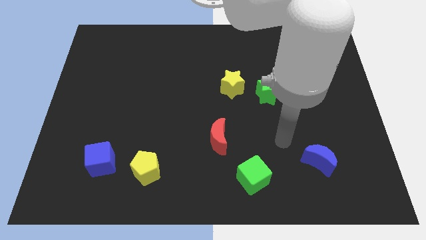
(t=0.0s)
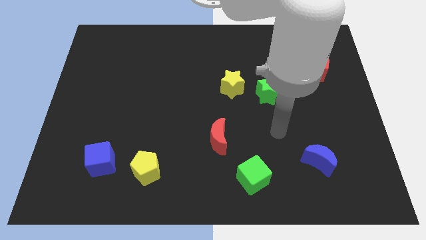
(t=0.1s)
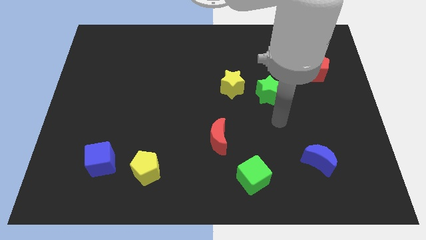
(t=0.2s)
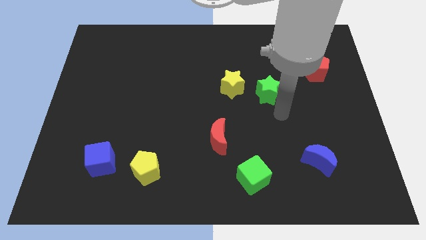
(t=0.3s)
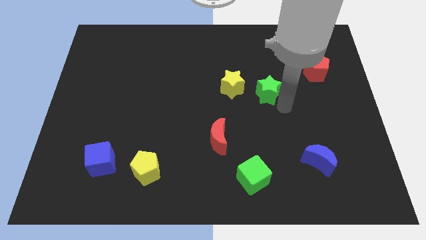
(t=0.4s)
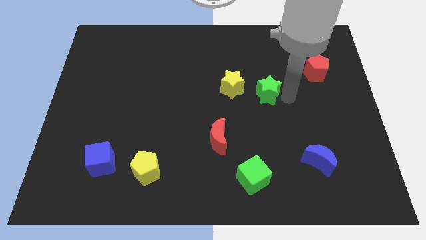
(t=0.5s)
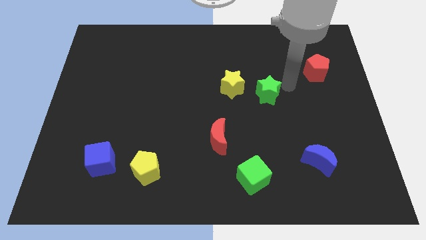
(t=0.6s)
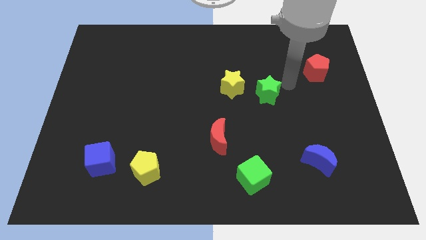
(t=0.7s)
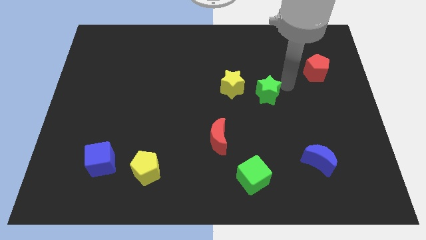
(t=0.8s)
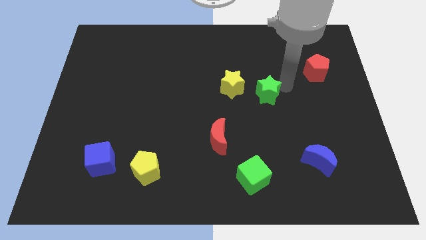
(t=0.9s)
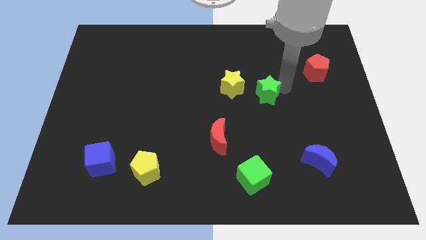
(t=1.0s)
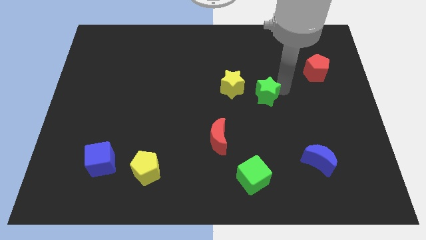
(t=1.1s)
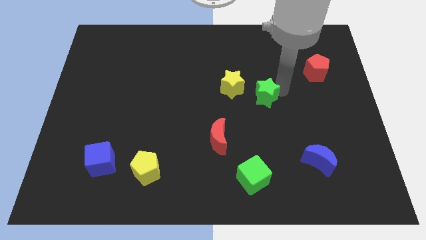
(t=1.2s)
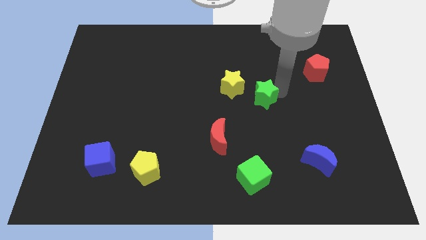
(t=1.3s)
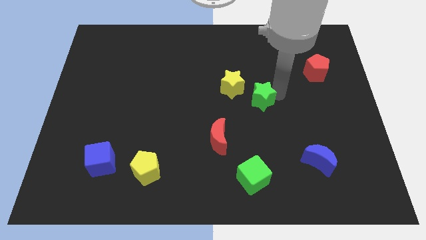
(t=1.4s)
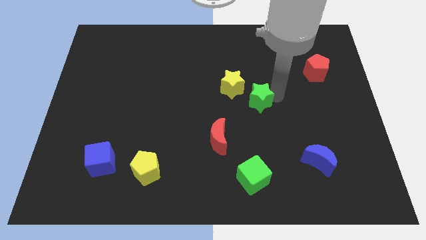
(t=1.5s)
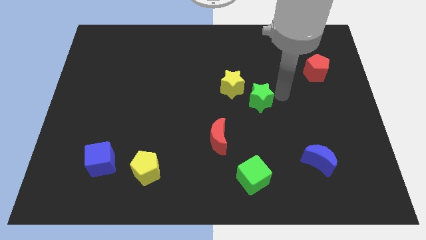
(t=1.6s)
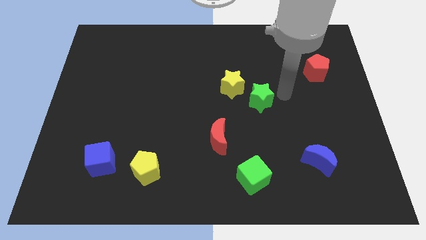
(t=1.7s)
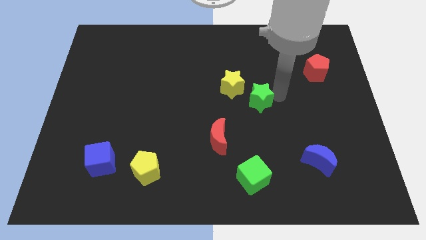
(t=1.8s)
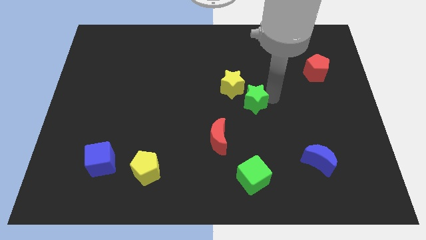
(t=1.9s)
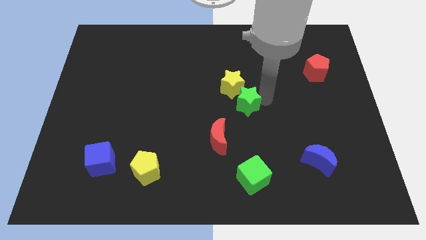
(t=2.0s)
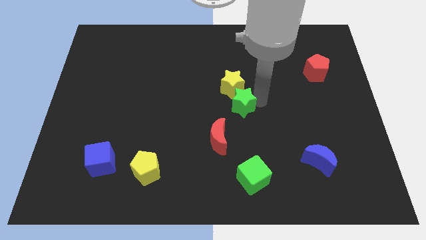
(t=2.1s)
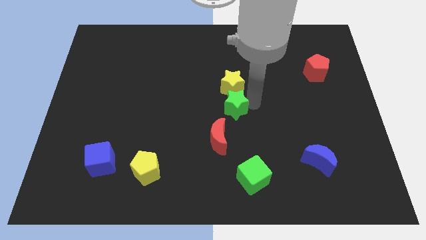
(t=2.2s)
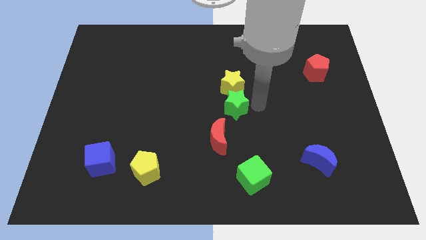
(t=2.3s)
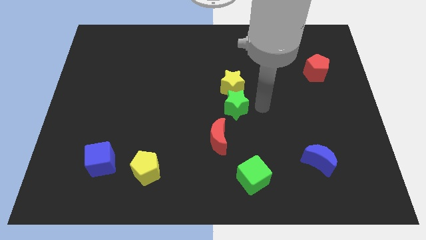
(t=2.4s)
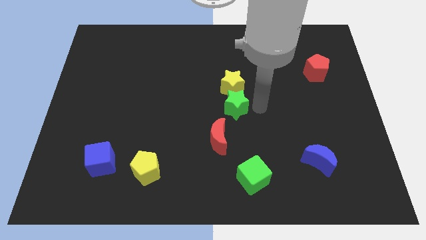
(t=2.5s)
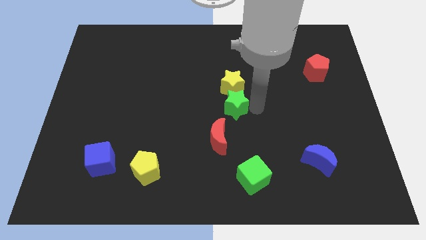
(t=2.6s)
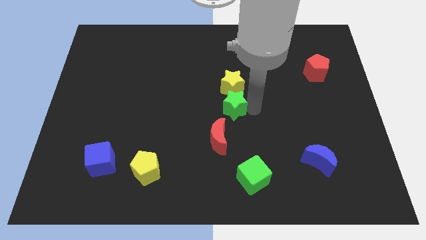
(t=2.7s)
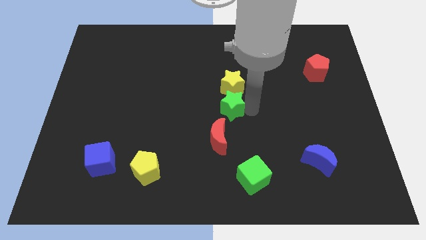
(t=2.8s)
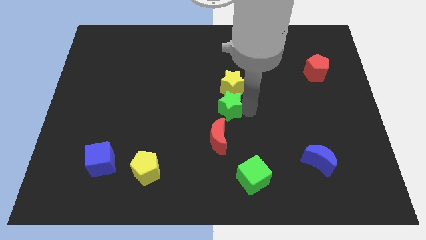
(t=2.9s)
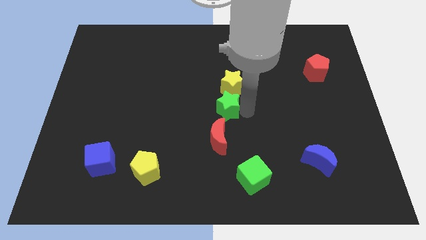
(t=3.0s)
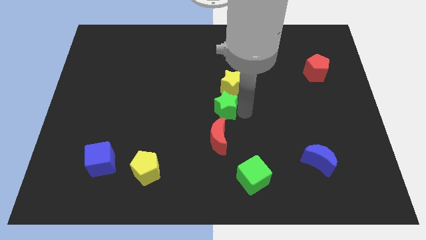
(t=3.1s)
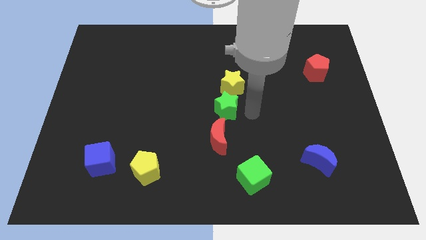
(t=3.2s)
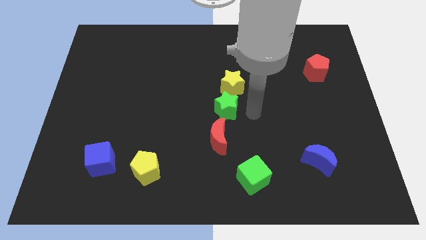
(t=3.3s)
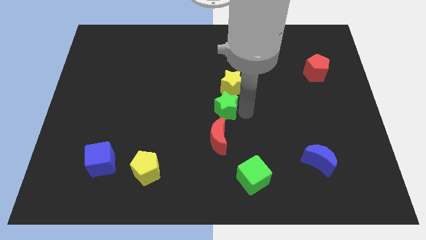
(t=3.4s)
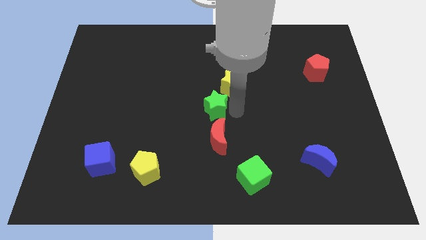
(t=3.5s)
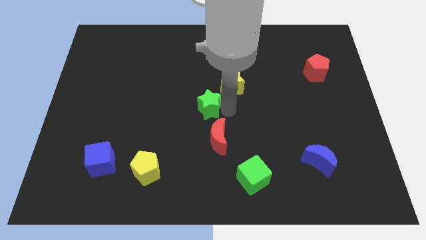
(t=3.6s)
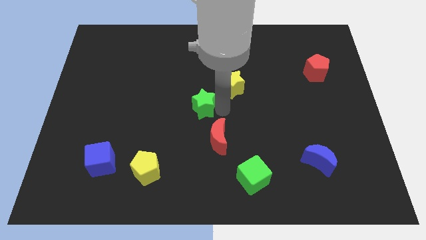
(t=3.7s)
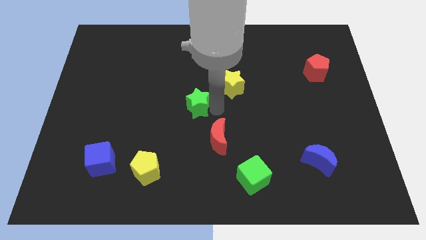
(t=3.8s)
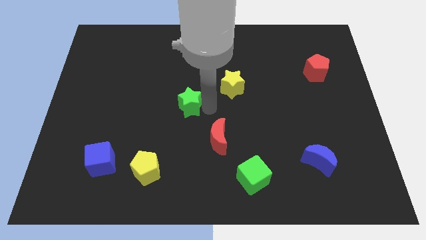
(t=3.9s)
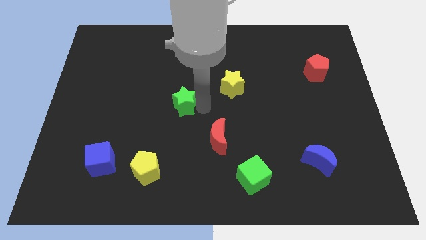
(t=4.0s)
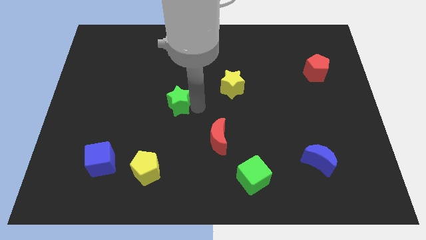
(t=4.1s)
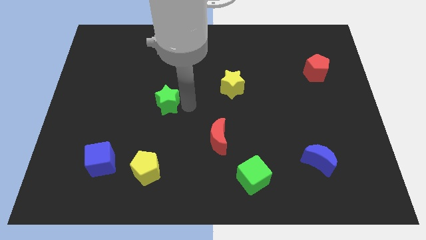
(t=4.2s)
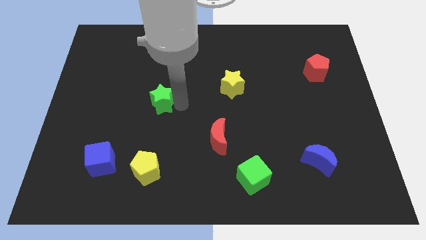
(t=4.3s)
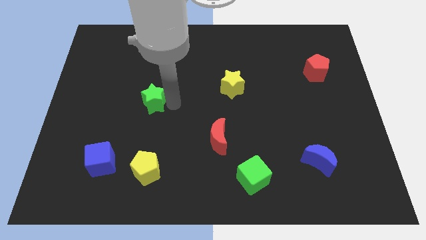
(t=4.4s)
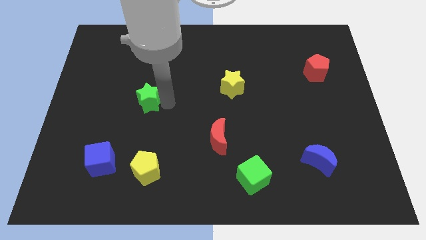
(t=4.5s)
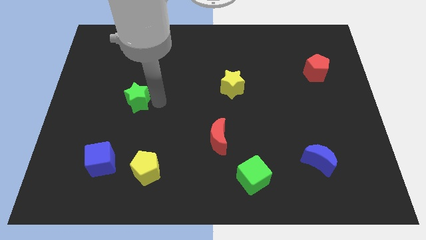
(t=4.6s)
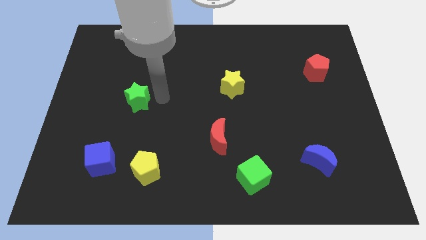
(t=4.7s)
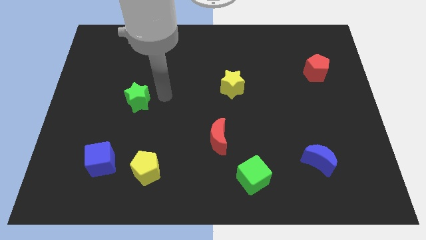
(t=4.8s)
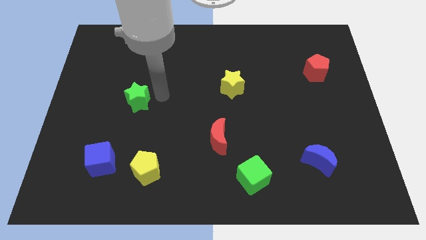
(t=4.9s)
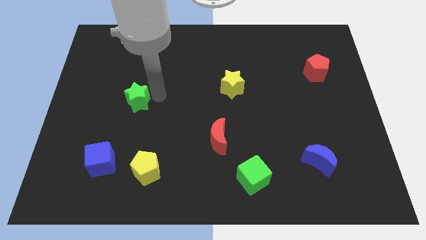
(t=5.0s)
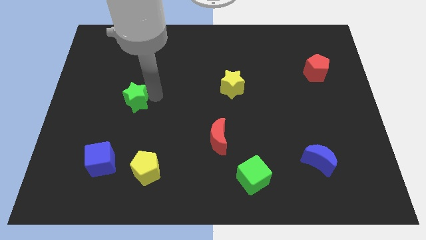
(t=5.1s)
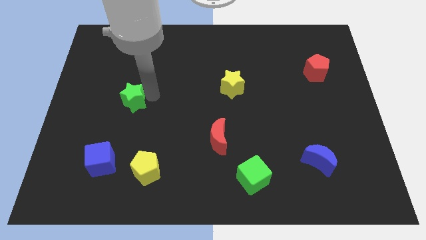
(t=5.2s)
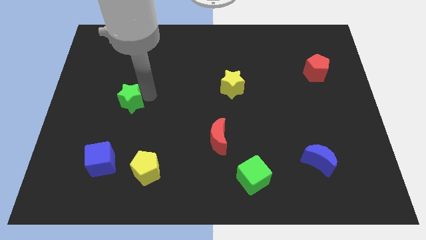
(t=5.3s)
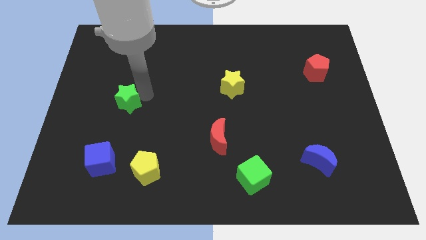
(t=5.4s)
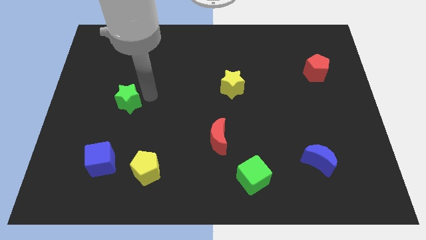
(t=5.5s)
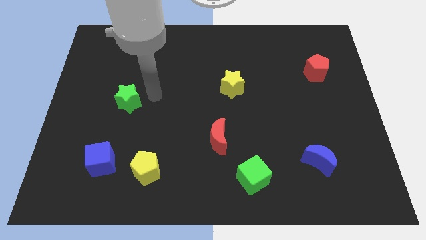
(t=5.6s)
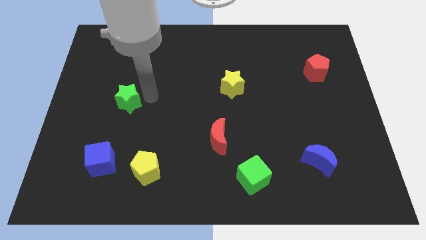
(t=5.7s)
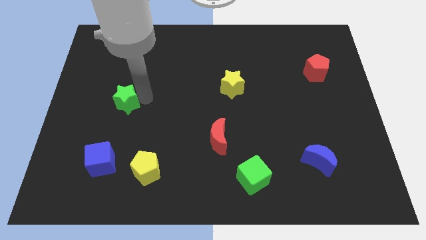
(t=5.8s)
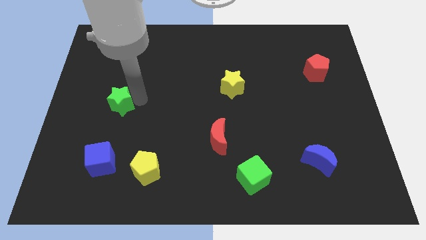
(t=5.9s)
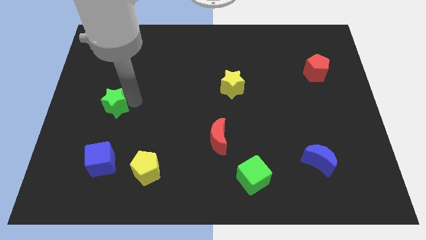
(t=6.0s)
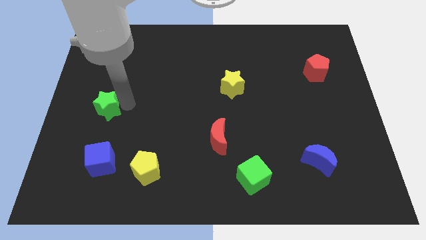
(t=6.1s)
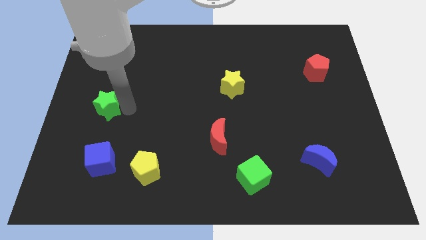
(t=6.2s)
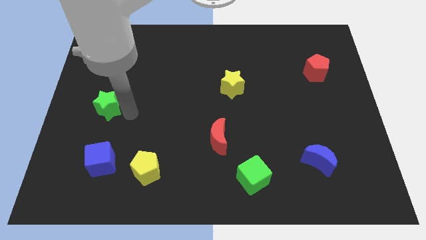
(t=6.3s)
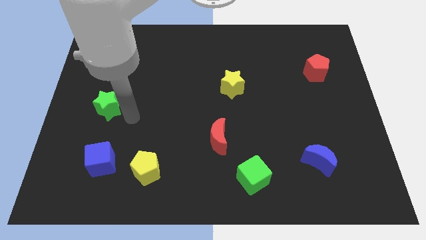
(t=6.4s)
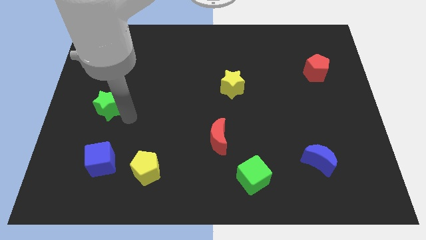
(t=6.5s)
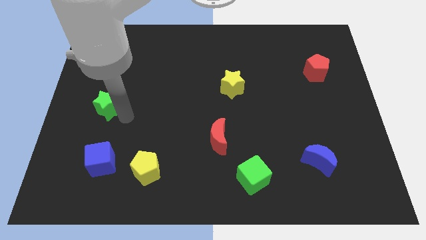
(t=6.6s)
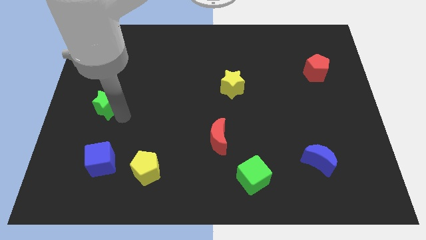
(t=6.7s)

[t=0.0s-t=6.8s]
push the green star to the center left

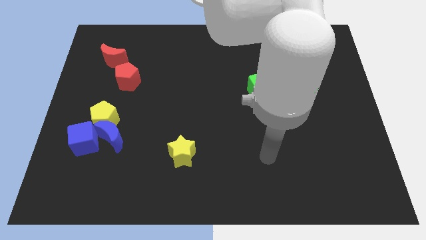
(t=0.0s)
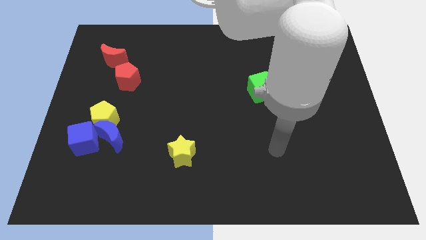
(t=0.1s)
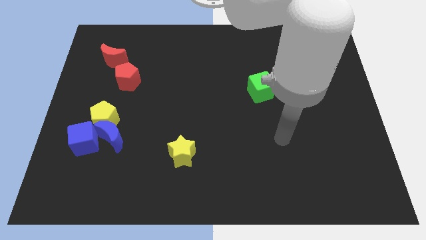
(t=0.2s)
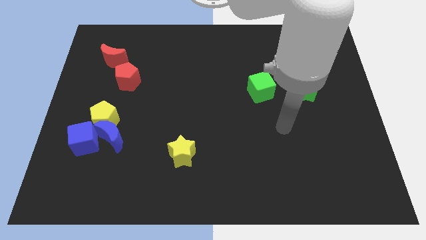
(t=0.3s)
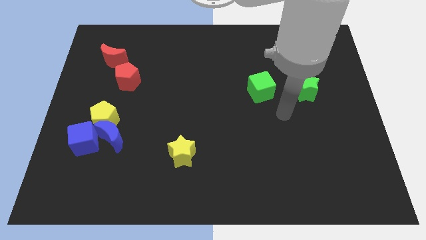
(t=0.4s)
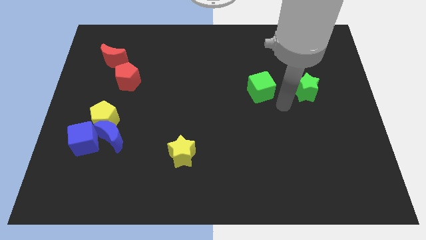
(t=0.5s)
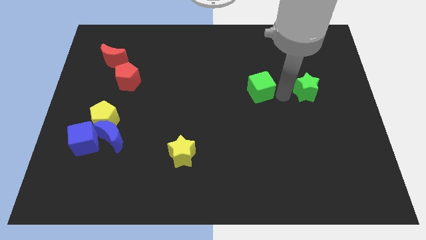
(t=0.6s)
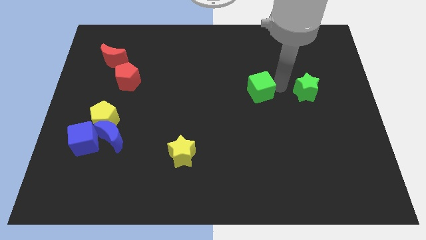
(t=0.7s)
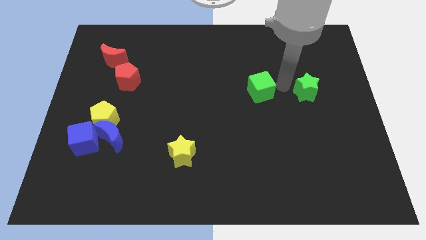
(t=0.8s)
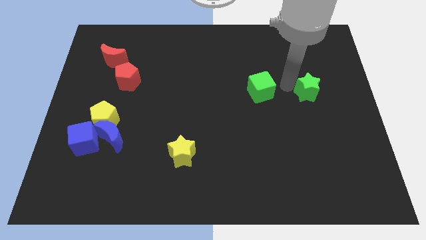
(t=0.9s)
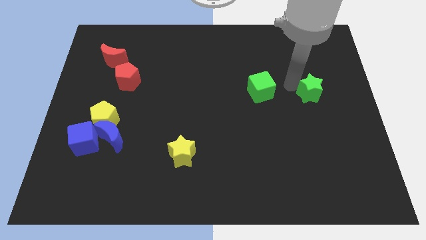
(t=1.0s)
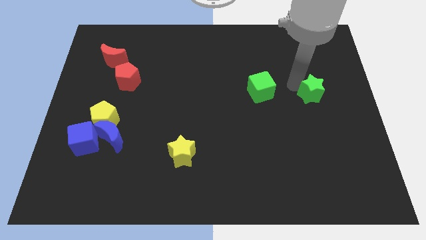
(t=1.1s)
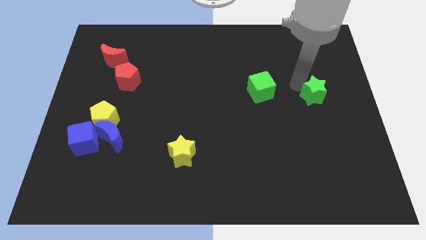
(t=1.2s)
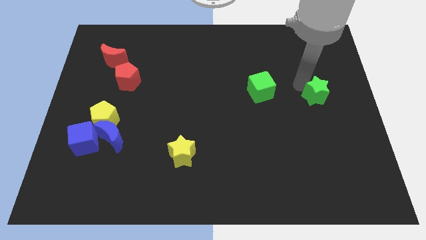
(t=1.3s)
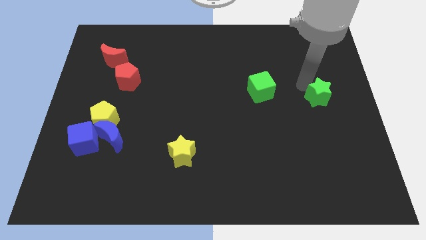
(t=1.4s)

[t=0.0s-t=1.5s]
push the green star to the center right
